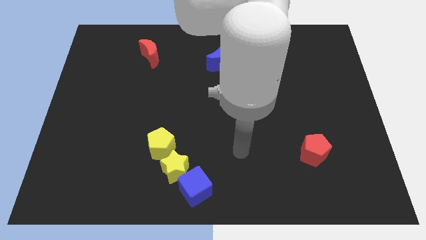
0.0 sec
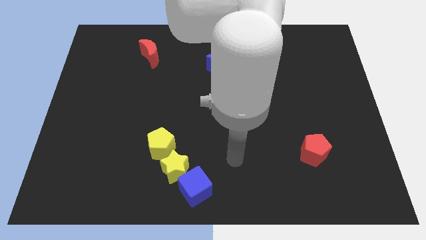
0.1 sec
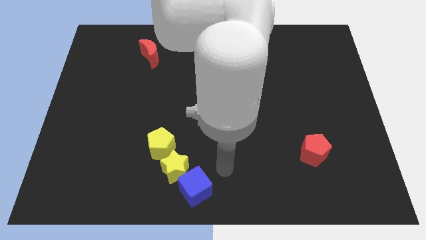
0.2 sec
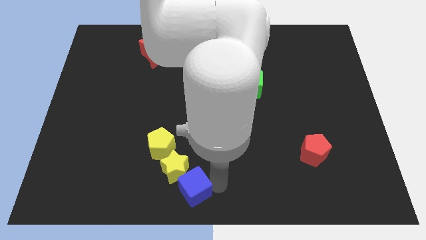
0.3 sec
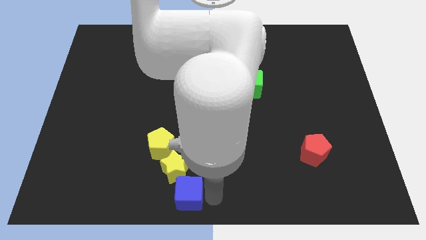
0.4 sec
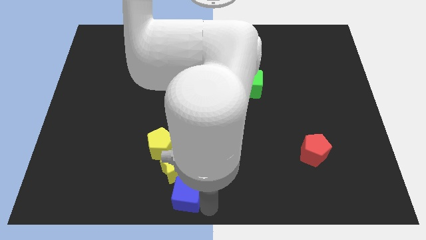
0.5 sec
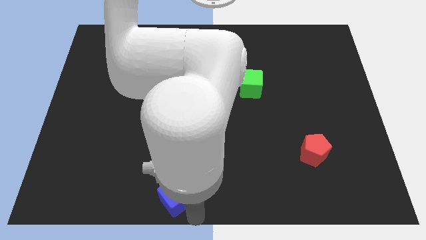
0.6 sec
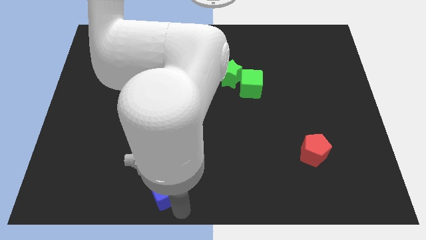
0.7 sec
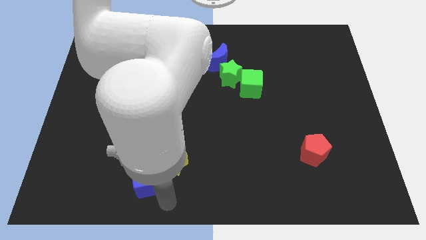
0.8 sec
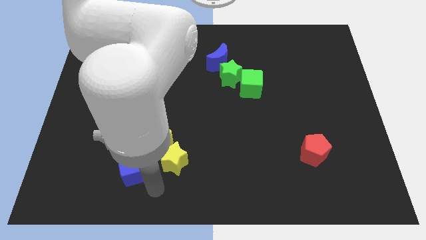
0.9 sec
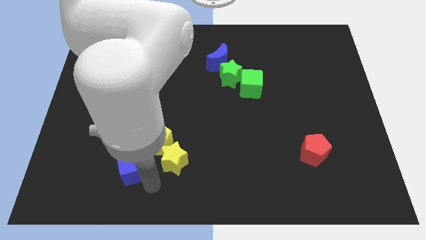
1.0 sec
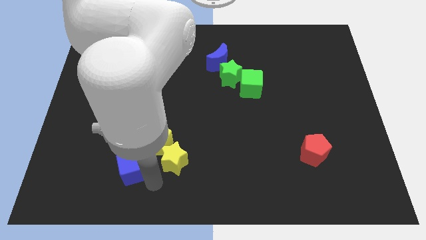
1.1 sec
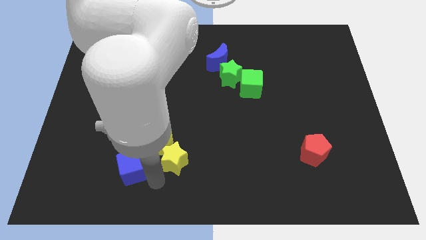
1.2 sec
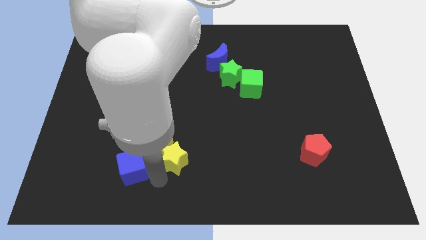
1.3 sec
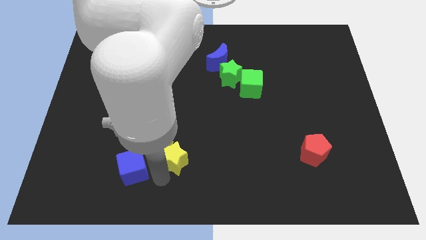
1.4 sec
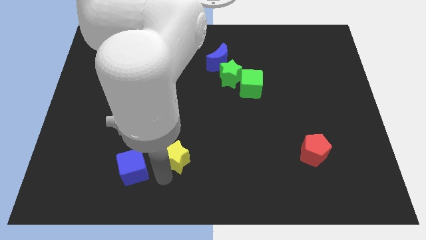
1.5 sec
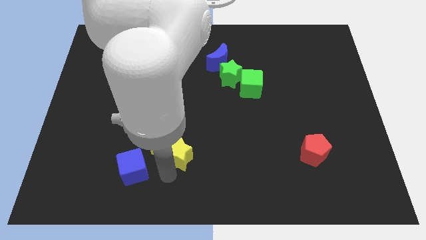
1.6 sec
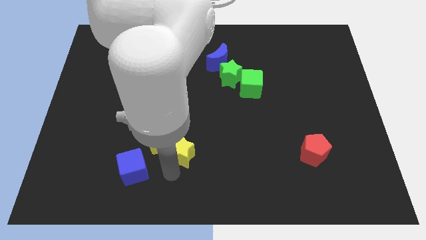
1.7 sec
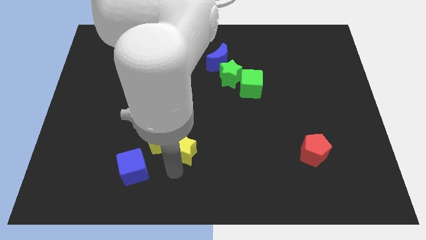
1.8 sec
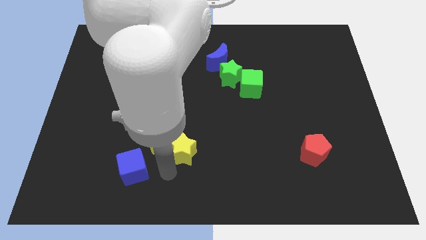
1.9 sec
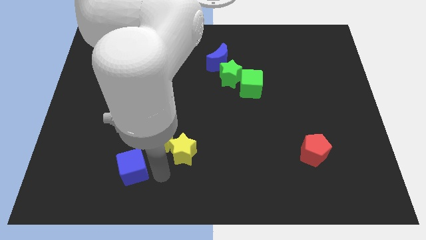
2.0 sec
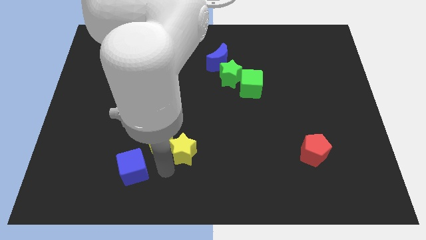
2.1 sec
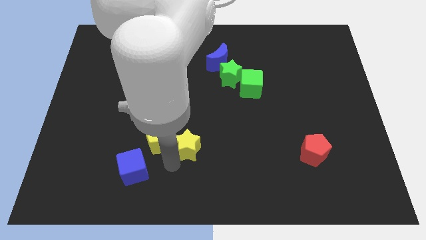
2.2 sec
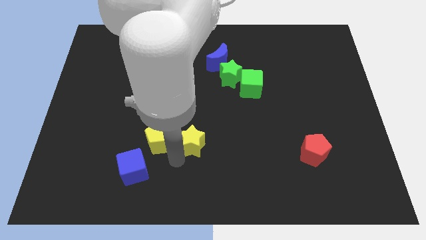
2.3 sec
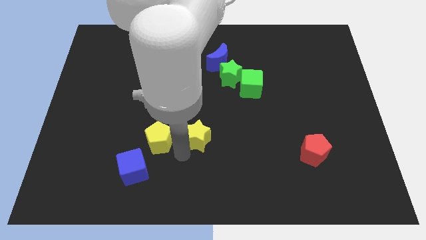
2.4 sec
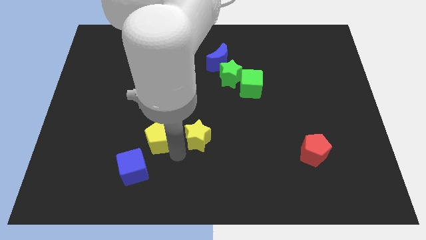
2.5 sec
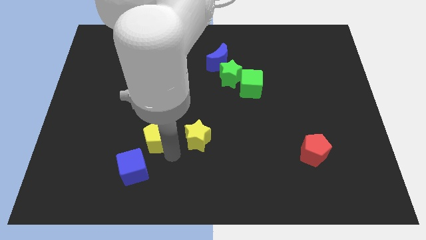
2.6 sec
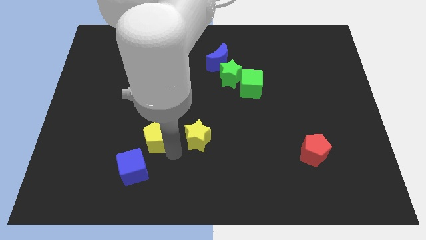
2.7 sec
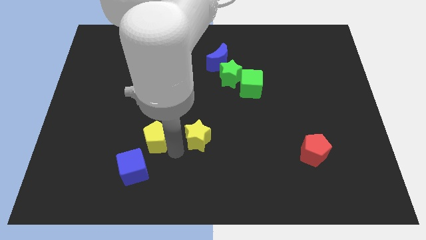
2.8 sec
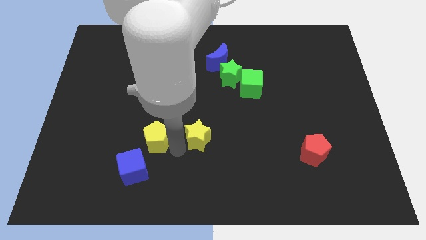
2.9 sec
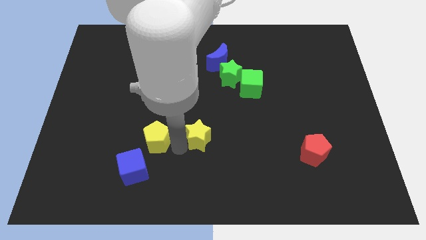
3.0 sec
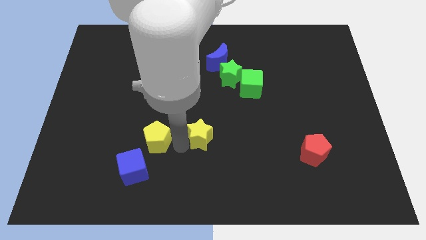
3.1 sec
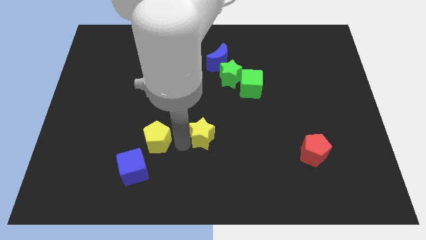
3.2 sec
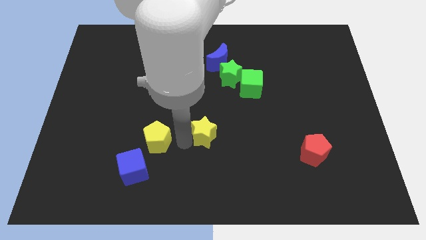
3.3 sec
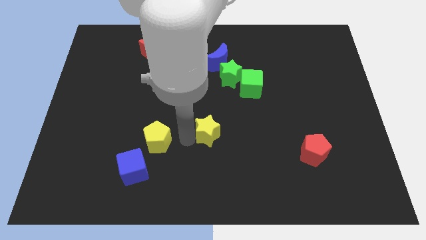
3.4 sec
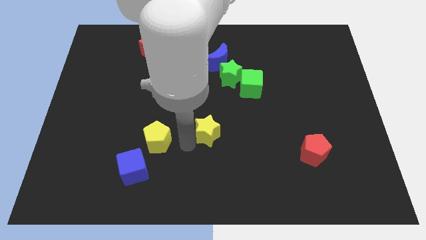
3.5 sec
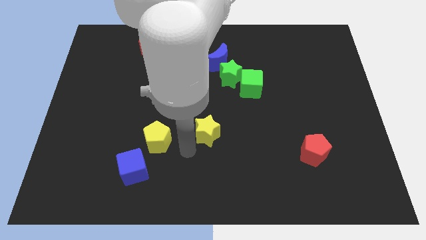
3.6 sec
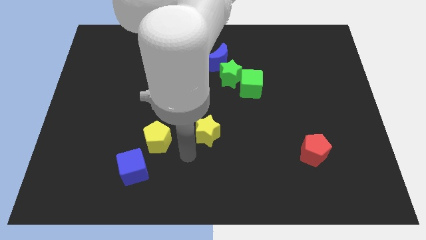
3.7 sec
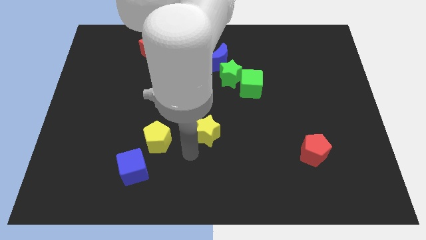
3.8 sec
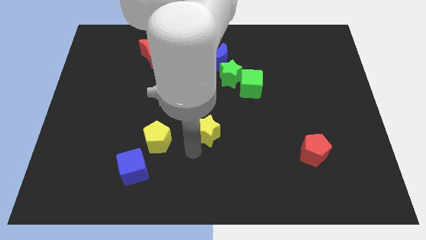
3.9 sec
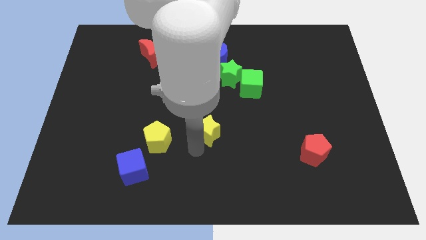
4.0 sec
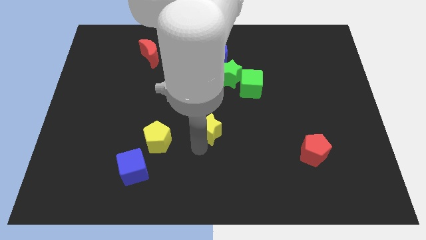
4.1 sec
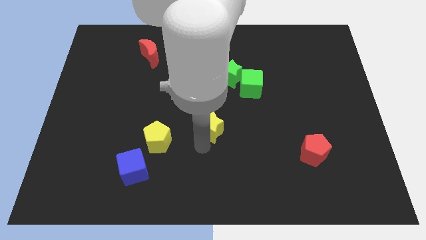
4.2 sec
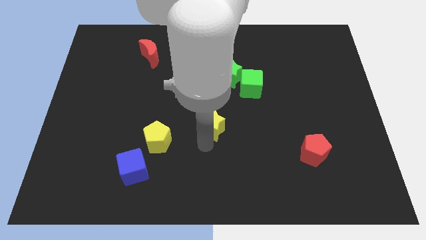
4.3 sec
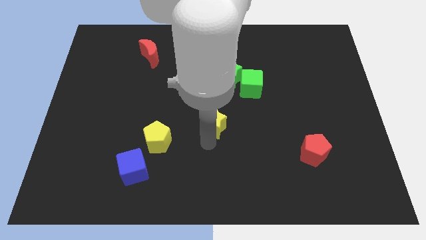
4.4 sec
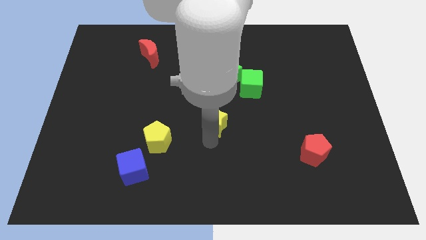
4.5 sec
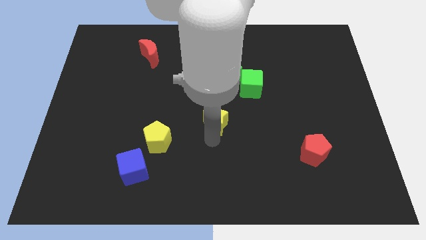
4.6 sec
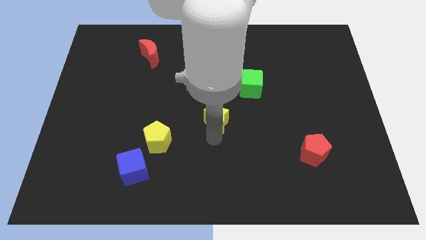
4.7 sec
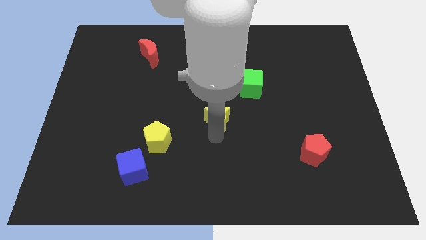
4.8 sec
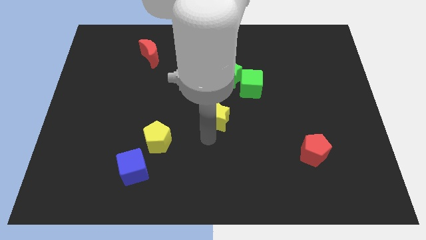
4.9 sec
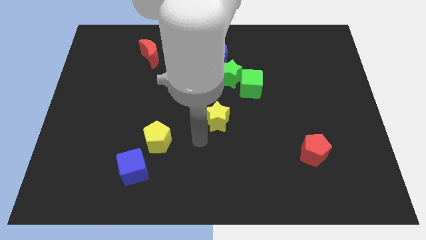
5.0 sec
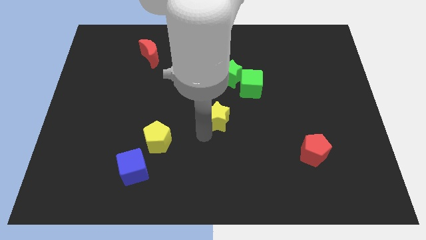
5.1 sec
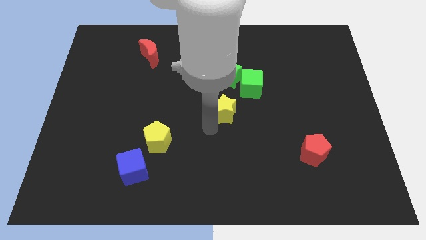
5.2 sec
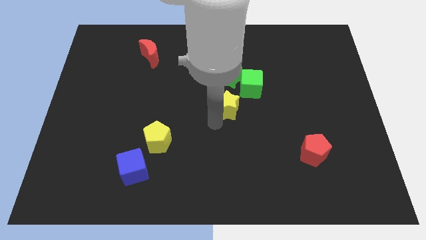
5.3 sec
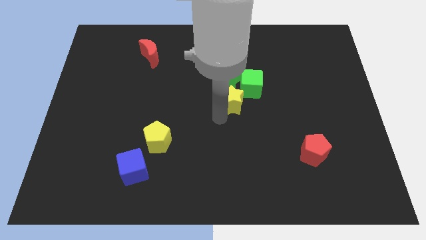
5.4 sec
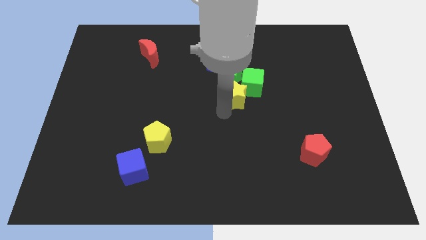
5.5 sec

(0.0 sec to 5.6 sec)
slide the yellow star next to the green cube

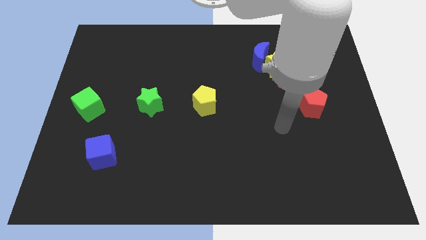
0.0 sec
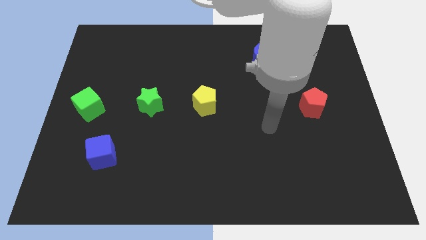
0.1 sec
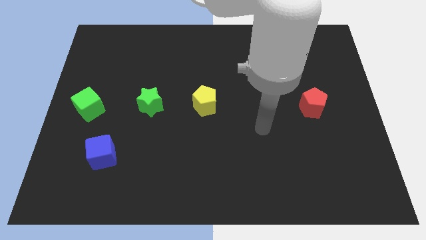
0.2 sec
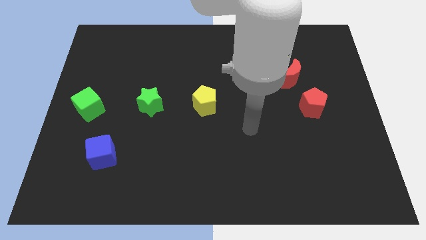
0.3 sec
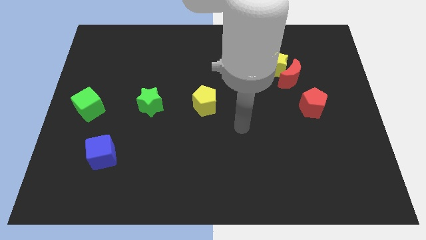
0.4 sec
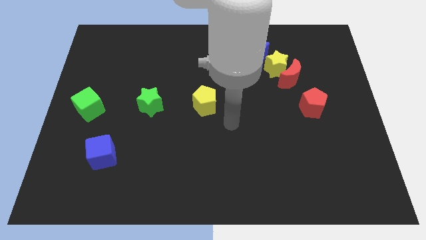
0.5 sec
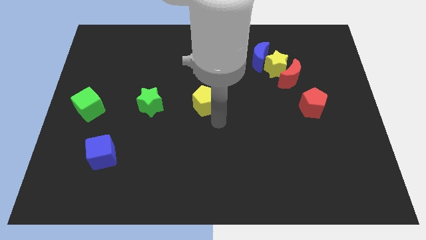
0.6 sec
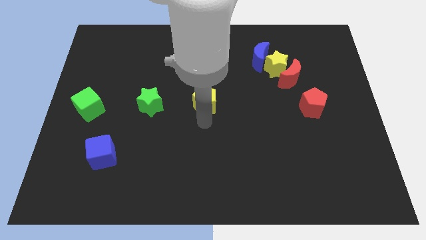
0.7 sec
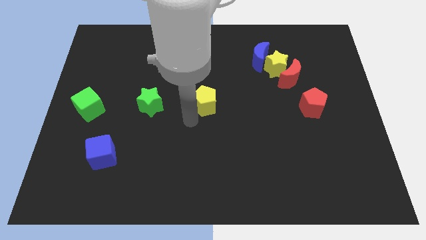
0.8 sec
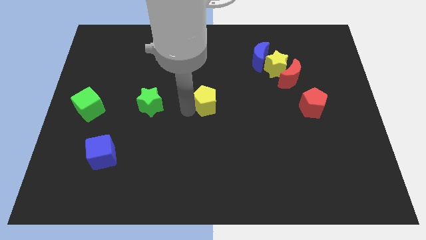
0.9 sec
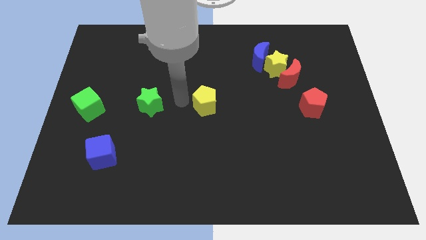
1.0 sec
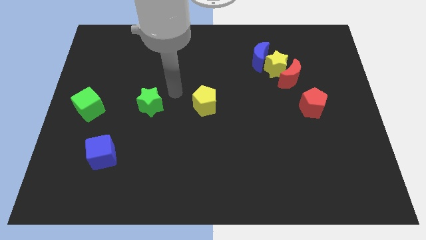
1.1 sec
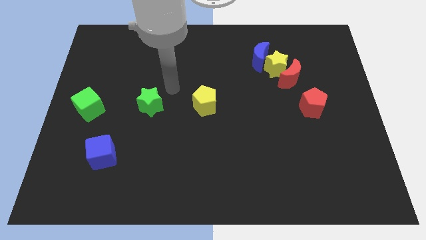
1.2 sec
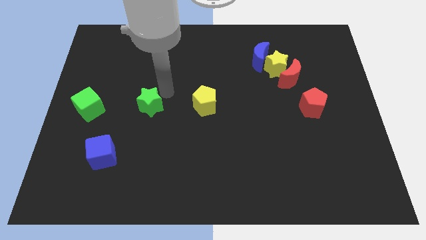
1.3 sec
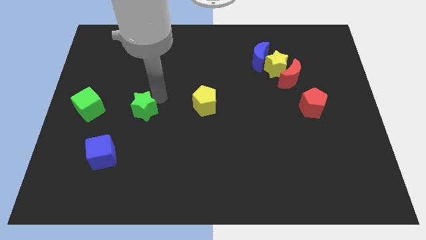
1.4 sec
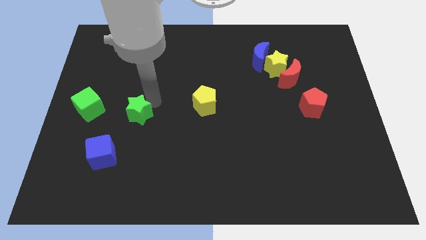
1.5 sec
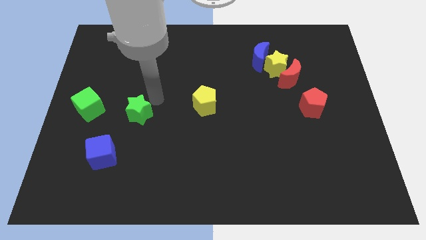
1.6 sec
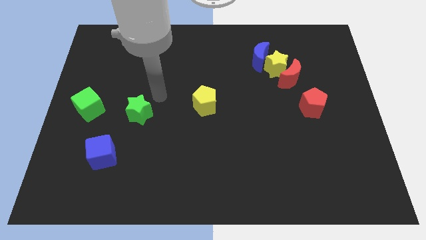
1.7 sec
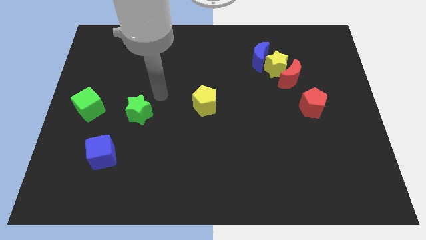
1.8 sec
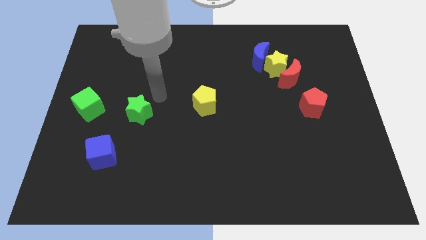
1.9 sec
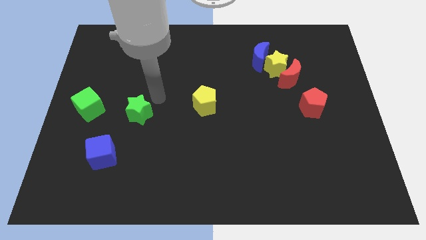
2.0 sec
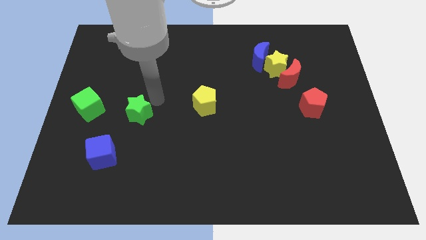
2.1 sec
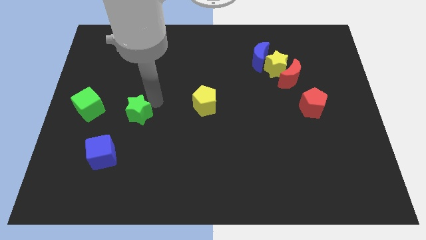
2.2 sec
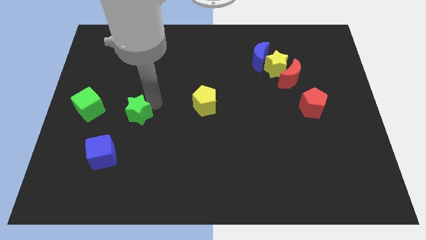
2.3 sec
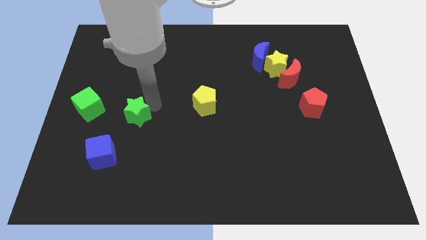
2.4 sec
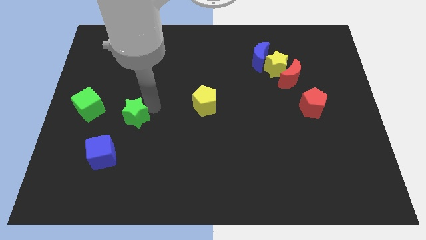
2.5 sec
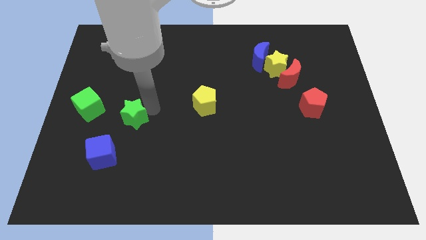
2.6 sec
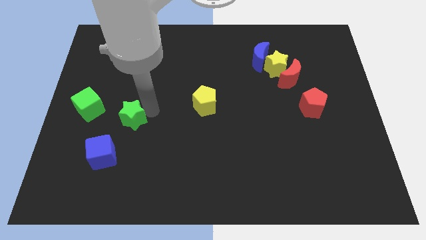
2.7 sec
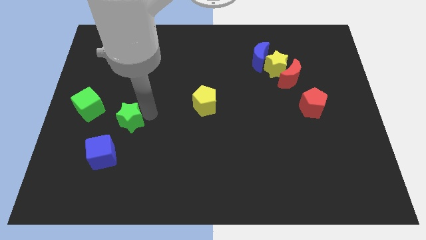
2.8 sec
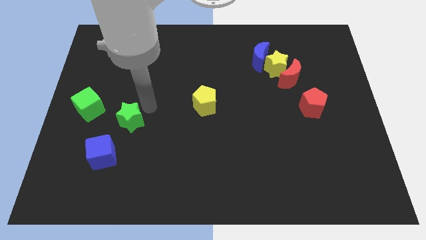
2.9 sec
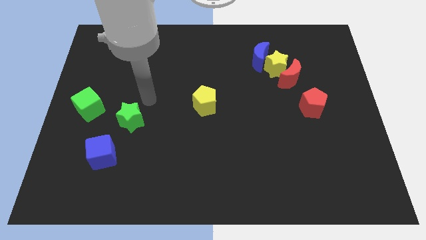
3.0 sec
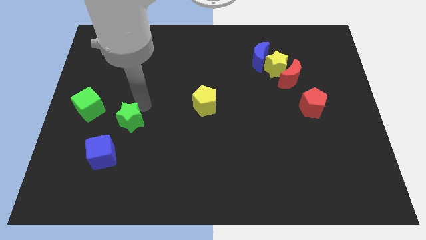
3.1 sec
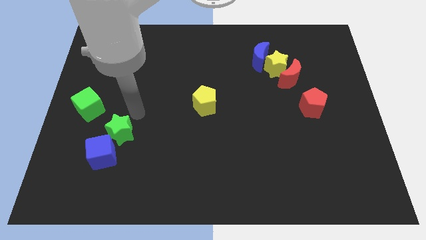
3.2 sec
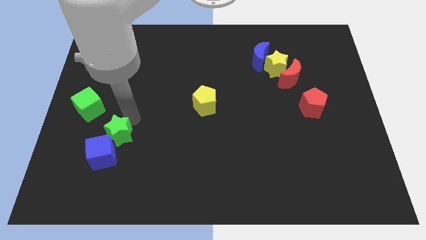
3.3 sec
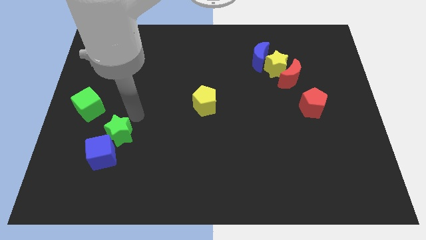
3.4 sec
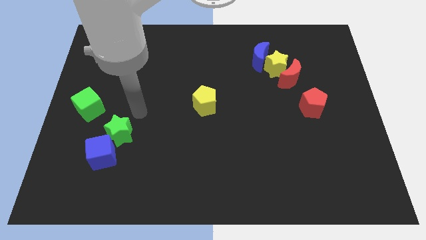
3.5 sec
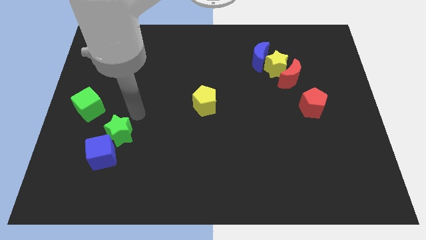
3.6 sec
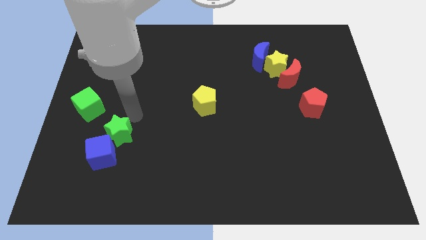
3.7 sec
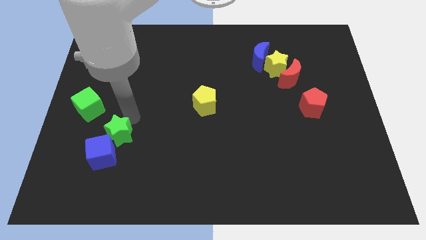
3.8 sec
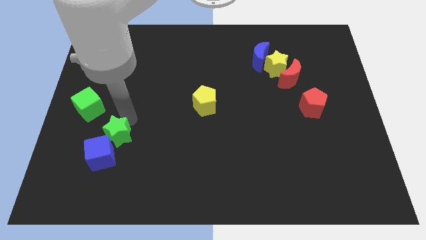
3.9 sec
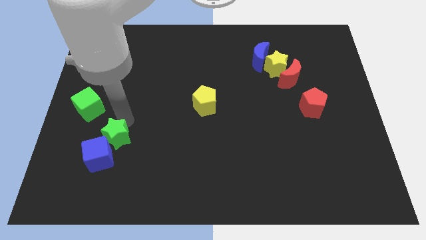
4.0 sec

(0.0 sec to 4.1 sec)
put the green star towards the blue cube
